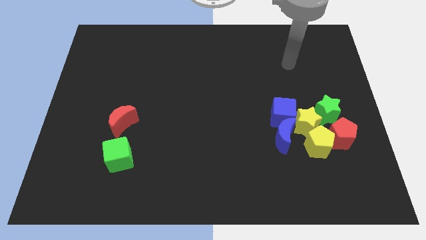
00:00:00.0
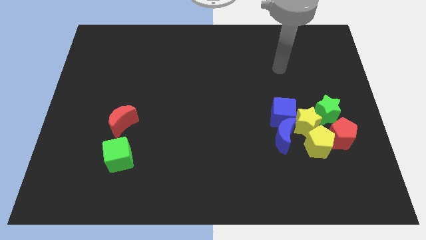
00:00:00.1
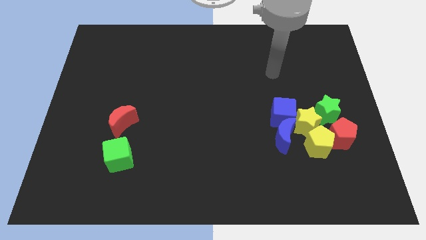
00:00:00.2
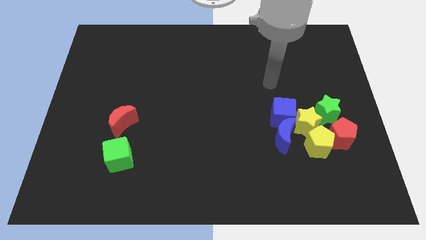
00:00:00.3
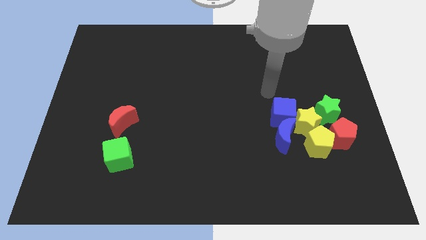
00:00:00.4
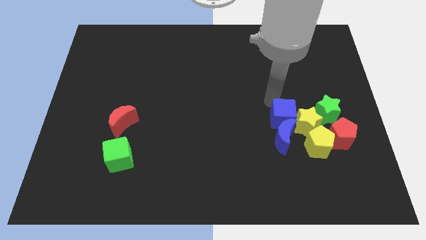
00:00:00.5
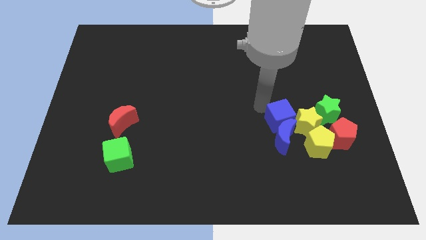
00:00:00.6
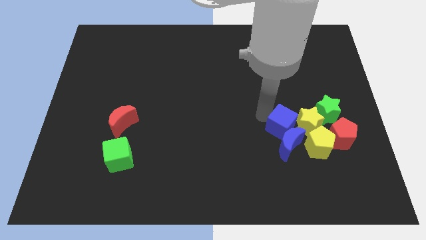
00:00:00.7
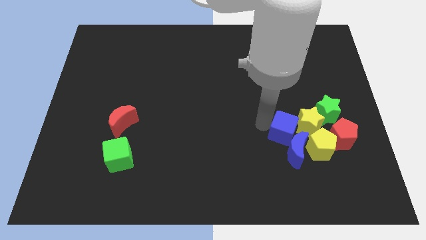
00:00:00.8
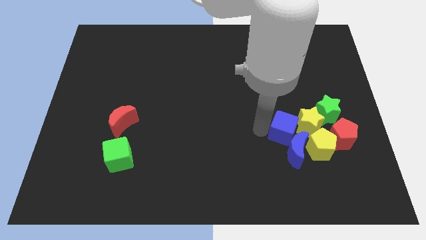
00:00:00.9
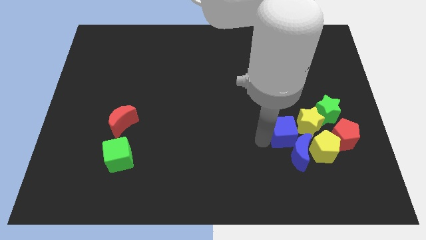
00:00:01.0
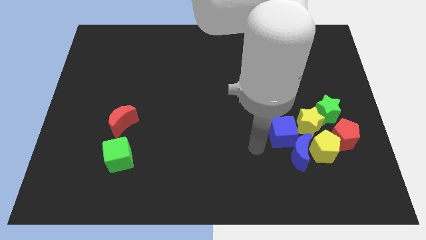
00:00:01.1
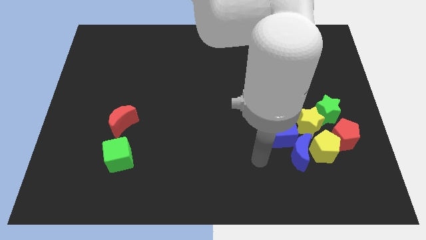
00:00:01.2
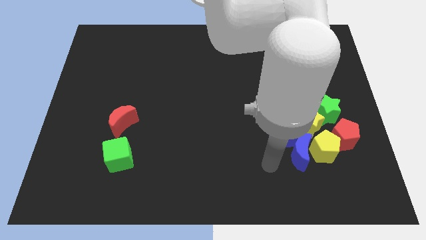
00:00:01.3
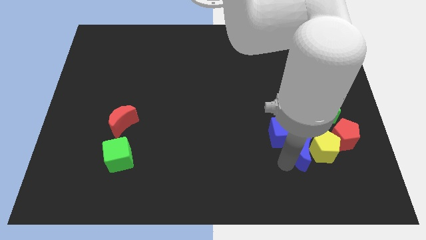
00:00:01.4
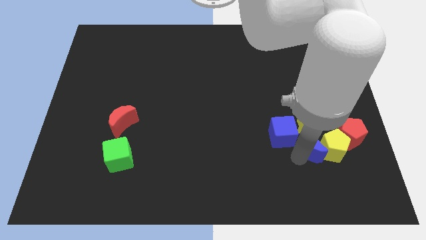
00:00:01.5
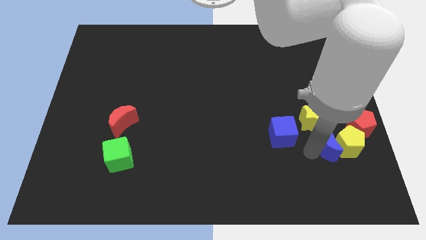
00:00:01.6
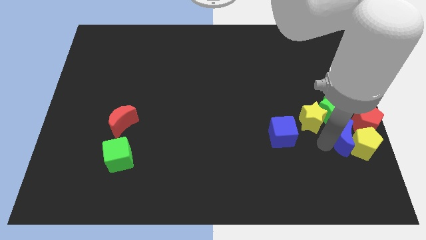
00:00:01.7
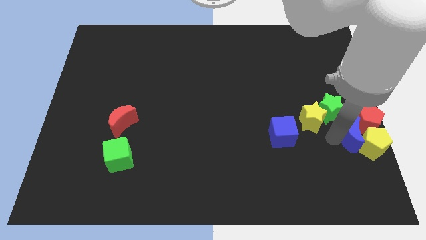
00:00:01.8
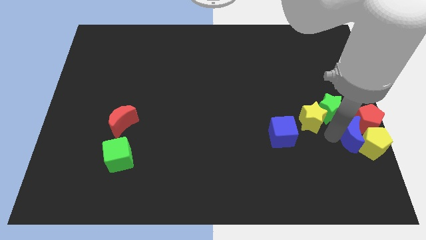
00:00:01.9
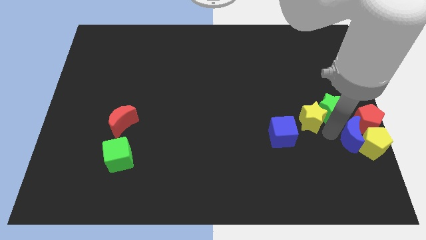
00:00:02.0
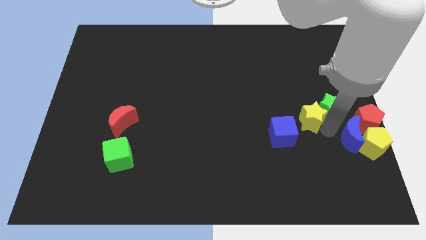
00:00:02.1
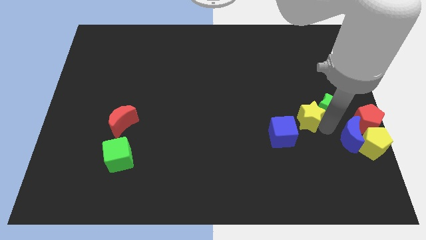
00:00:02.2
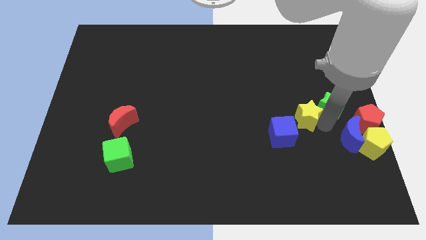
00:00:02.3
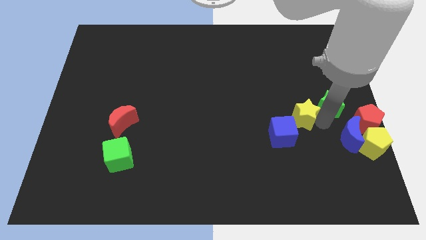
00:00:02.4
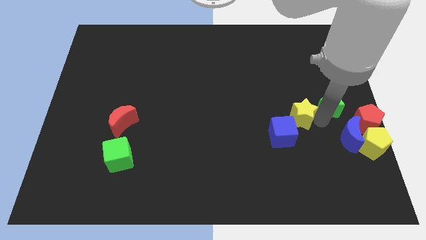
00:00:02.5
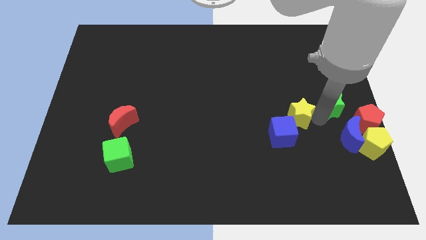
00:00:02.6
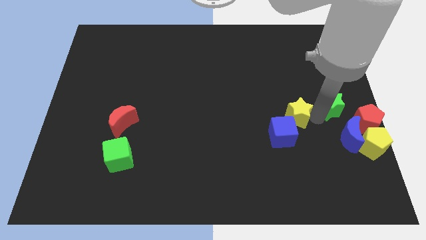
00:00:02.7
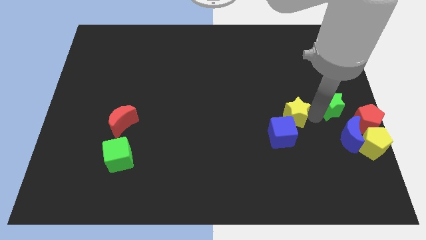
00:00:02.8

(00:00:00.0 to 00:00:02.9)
move the yellow star away from the clump

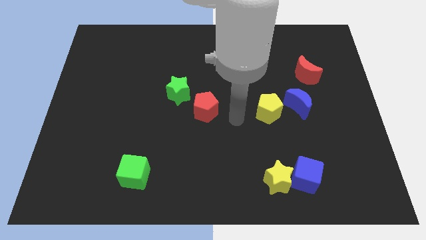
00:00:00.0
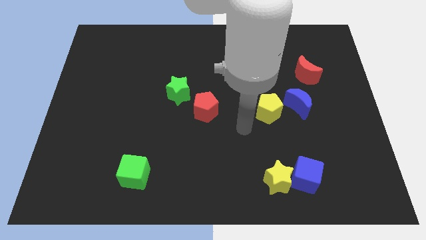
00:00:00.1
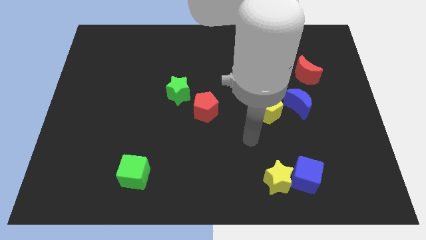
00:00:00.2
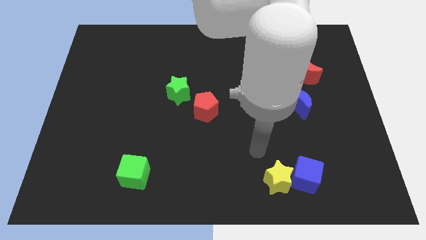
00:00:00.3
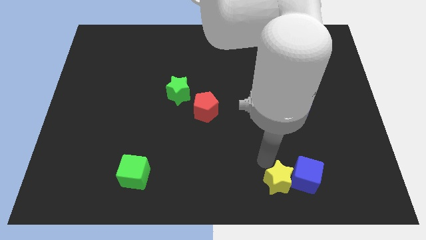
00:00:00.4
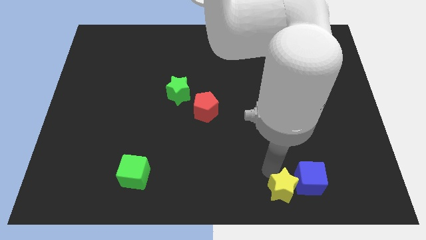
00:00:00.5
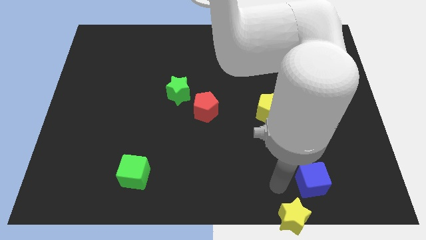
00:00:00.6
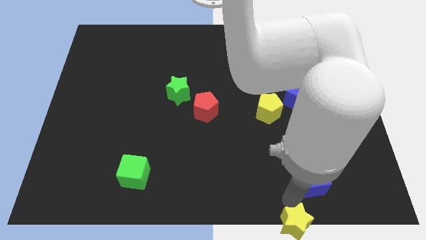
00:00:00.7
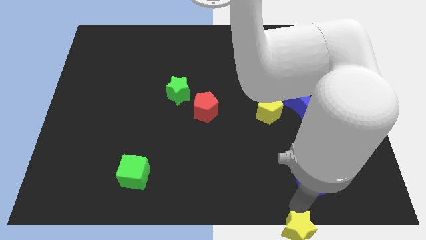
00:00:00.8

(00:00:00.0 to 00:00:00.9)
move the blue cube away from the yellow star

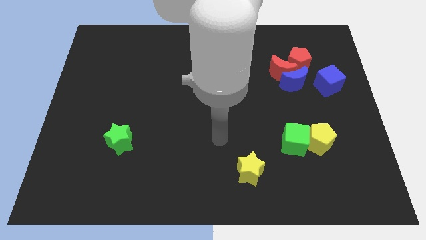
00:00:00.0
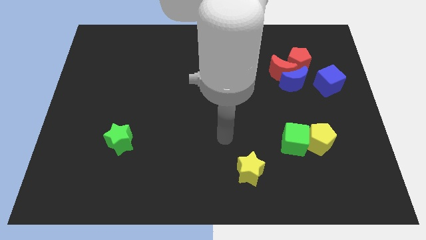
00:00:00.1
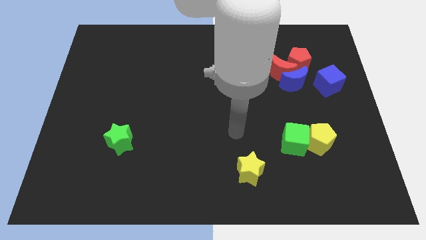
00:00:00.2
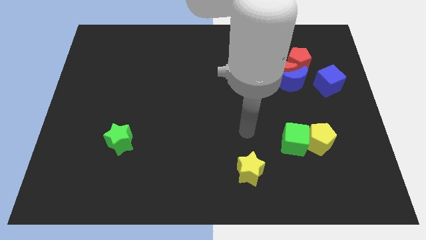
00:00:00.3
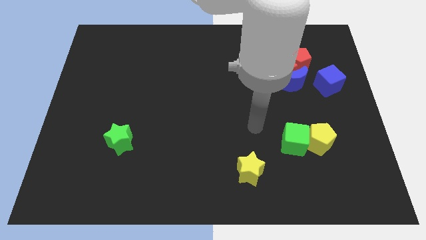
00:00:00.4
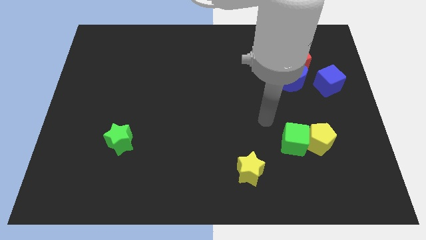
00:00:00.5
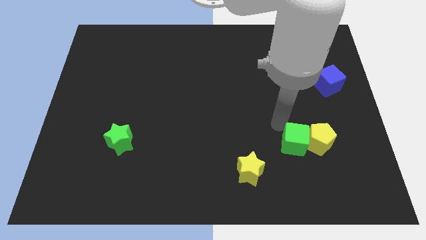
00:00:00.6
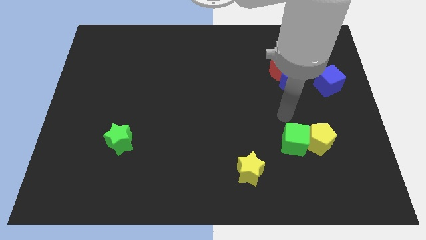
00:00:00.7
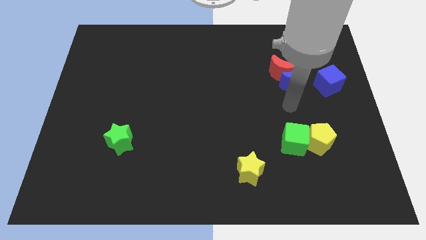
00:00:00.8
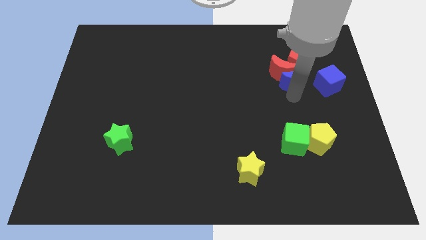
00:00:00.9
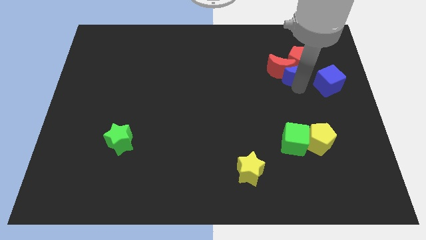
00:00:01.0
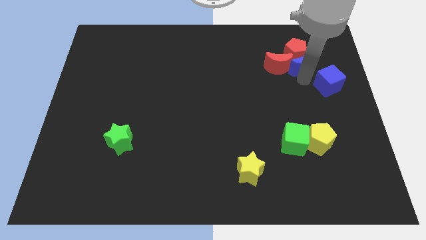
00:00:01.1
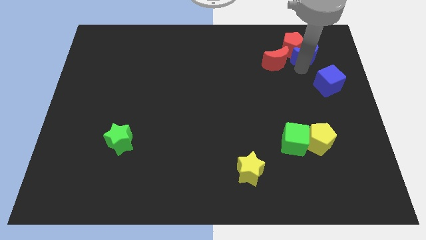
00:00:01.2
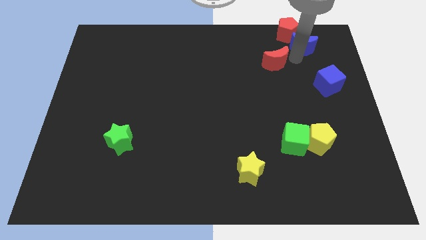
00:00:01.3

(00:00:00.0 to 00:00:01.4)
separate the red moon from the blue moon and red pentagon

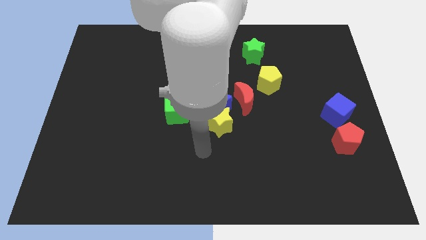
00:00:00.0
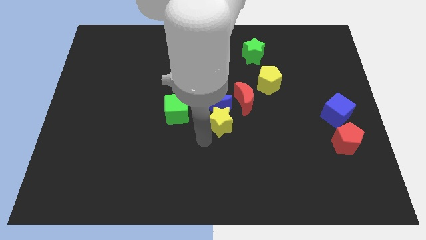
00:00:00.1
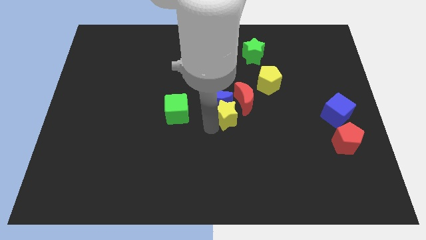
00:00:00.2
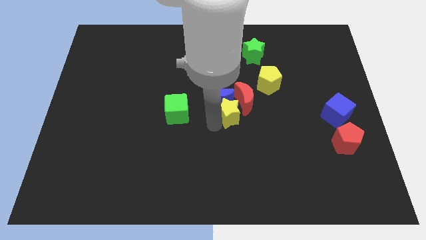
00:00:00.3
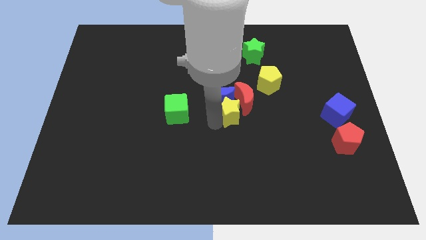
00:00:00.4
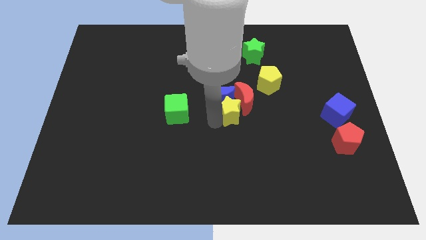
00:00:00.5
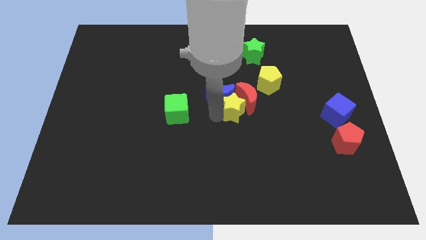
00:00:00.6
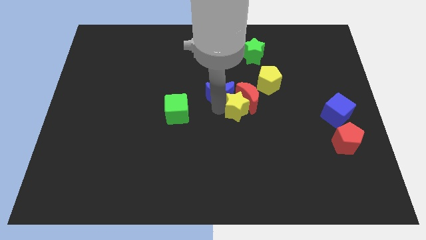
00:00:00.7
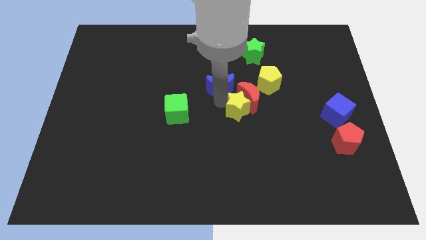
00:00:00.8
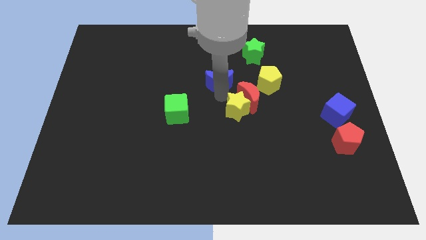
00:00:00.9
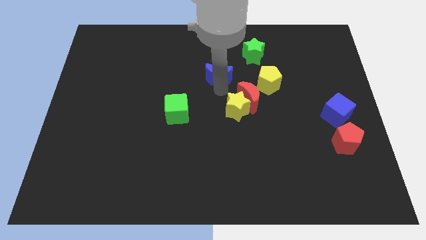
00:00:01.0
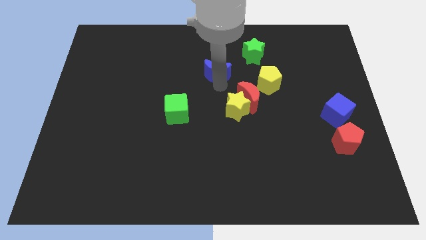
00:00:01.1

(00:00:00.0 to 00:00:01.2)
pull the blue moon apart from the yellow star, red moon, and green cube

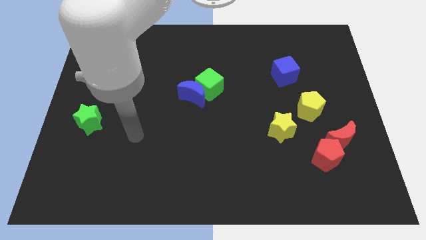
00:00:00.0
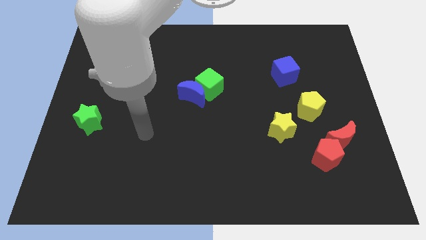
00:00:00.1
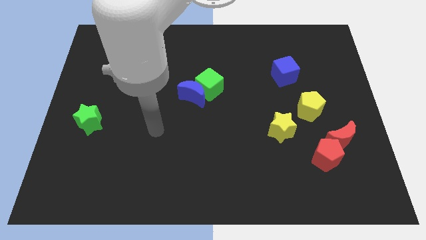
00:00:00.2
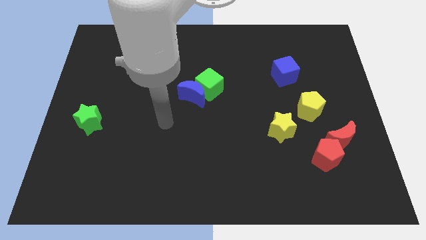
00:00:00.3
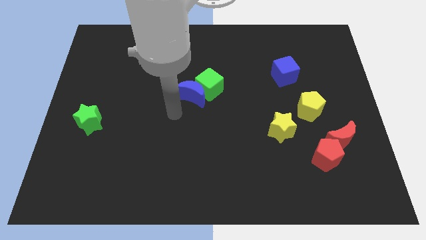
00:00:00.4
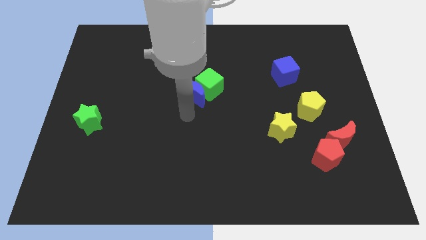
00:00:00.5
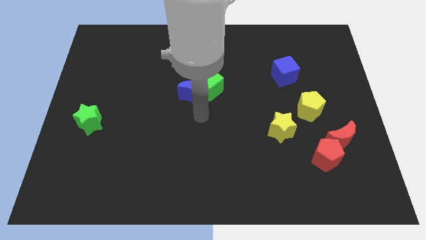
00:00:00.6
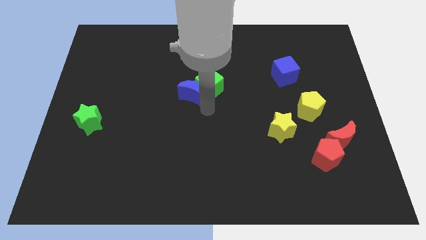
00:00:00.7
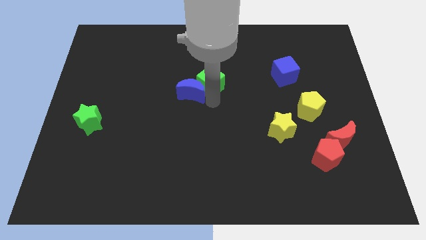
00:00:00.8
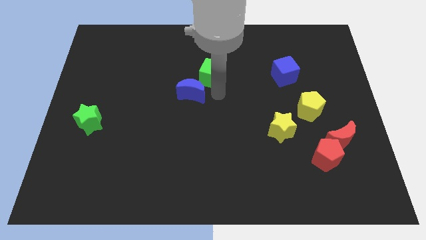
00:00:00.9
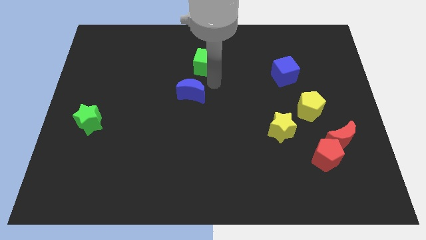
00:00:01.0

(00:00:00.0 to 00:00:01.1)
move the blue moon away from the green cube

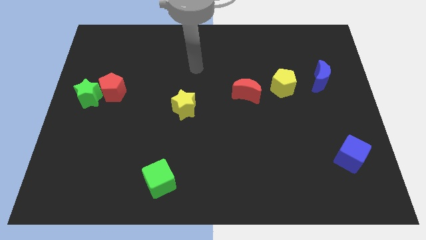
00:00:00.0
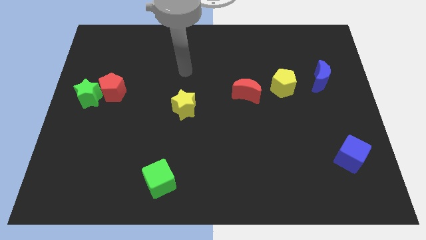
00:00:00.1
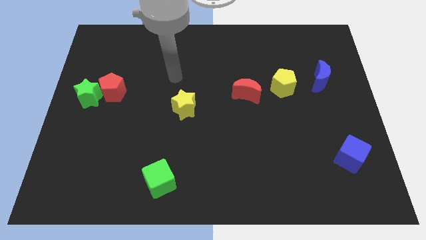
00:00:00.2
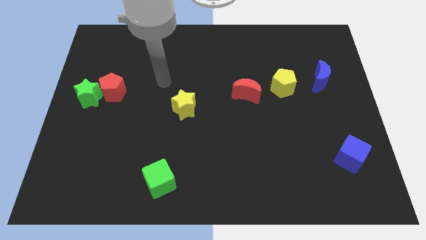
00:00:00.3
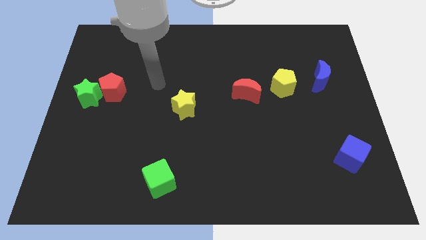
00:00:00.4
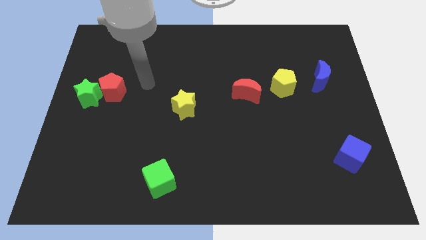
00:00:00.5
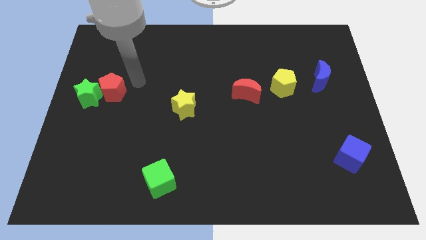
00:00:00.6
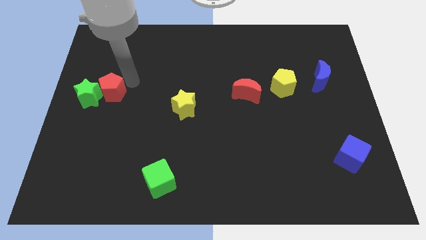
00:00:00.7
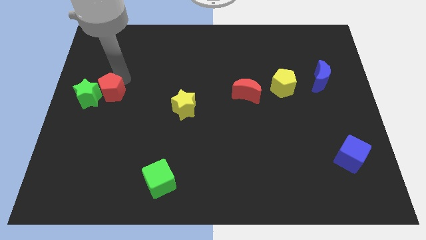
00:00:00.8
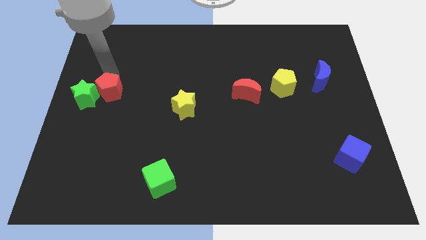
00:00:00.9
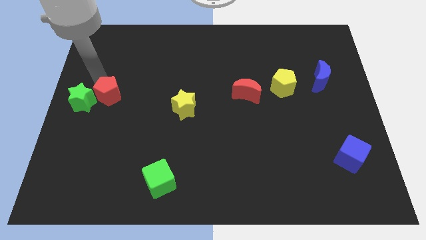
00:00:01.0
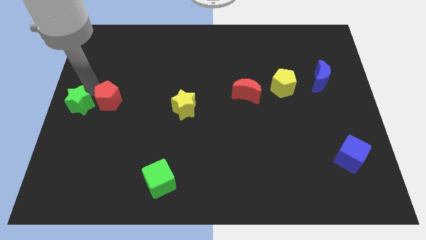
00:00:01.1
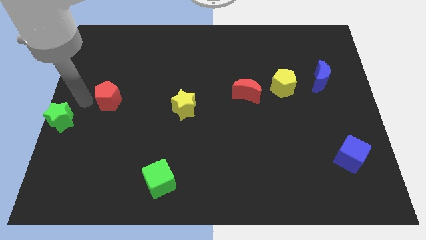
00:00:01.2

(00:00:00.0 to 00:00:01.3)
pull the red pentagon apart from the green star

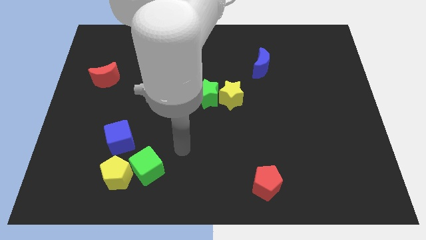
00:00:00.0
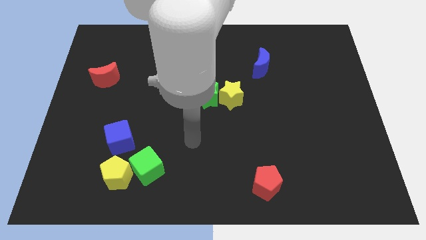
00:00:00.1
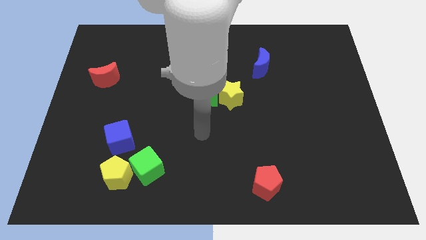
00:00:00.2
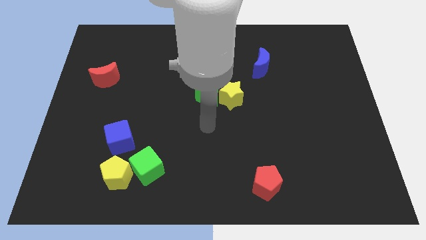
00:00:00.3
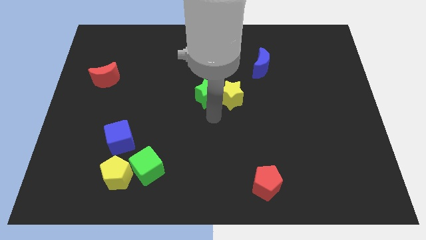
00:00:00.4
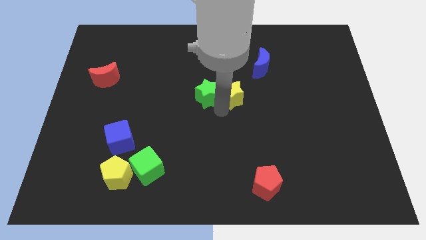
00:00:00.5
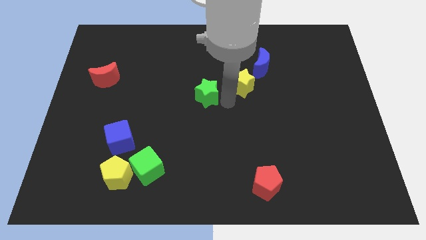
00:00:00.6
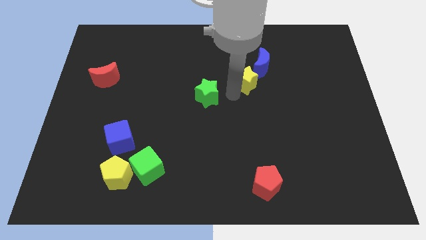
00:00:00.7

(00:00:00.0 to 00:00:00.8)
move the green star away from the yellow star
